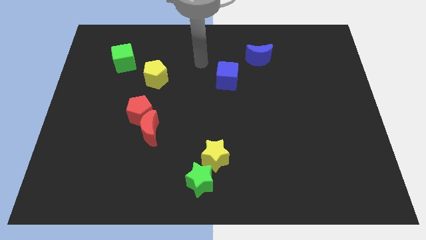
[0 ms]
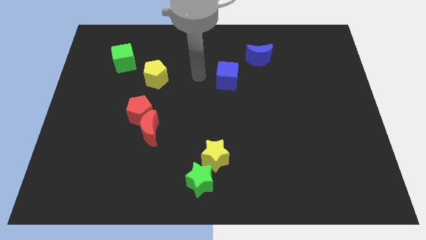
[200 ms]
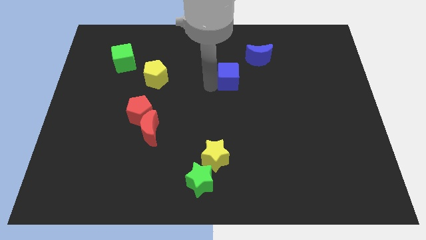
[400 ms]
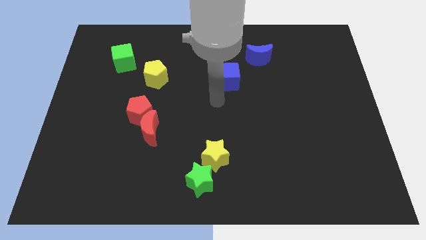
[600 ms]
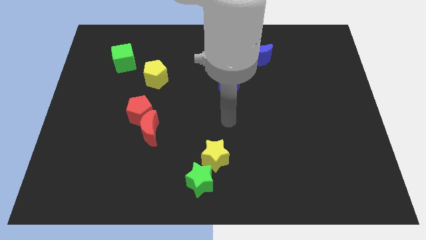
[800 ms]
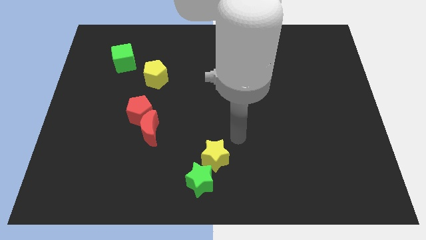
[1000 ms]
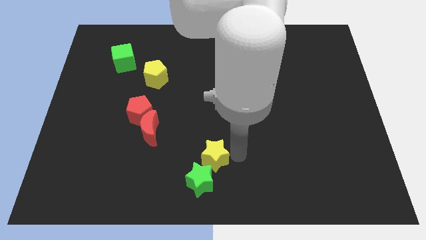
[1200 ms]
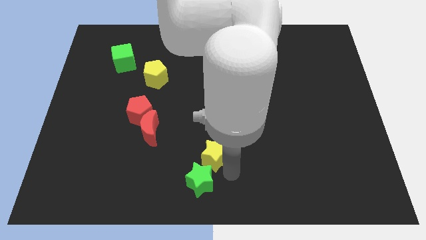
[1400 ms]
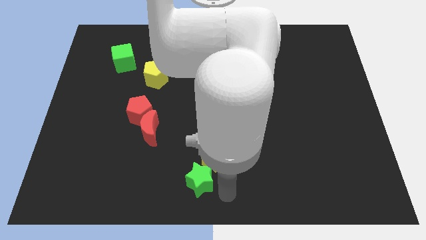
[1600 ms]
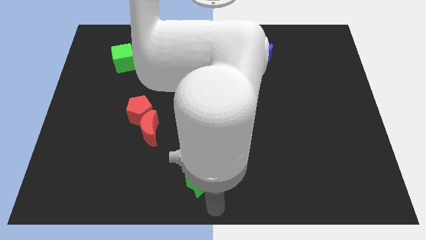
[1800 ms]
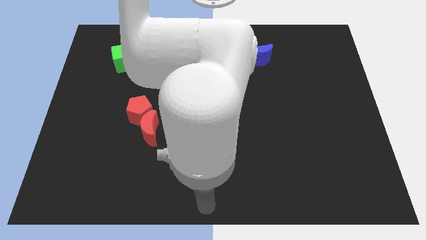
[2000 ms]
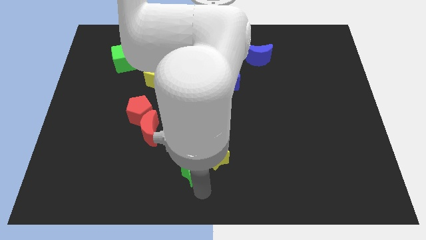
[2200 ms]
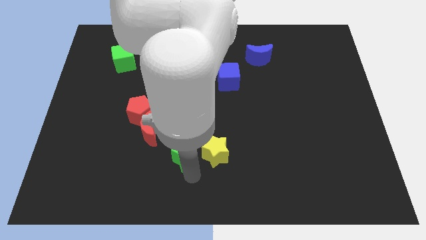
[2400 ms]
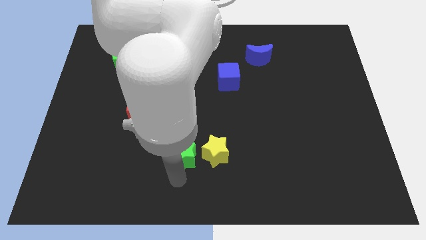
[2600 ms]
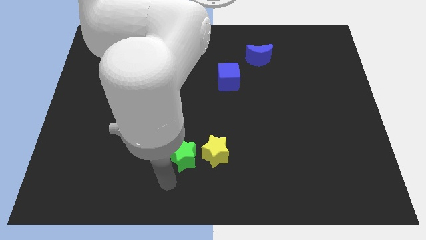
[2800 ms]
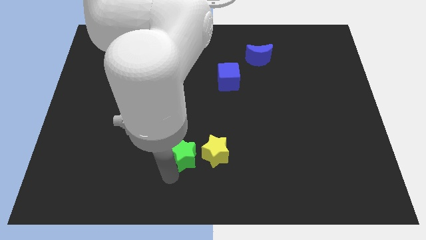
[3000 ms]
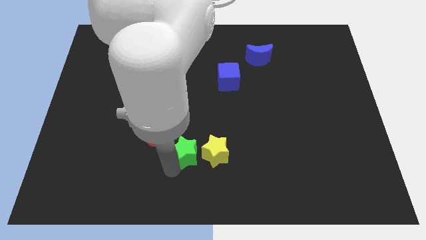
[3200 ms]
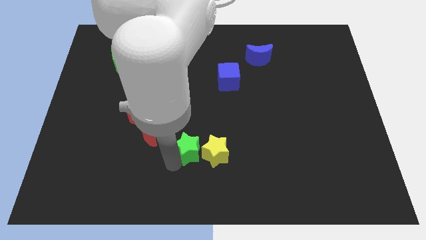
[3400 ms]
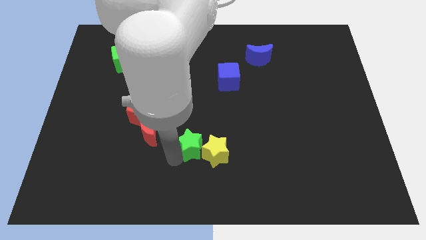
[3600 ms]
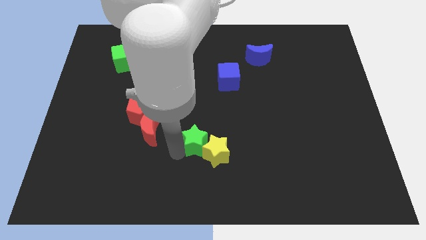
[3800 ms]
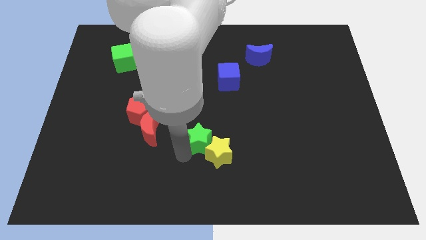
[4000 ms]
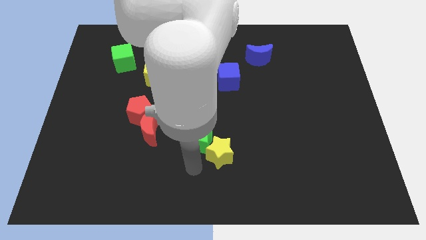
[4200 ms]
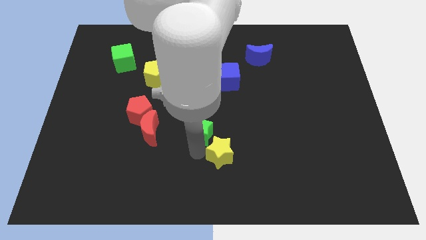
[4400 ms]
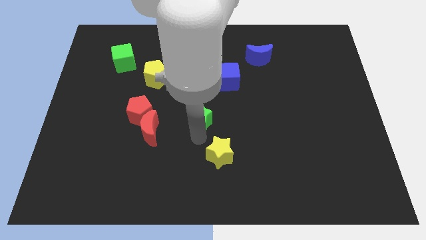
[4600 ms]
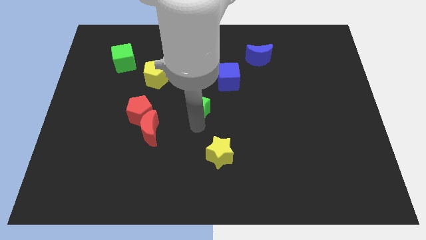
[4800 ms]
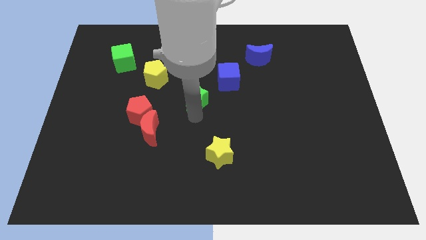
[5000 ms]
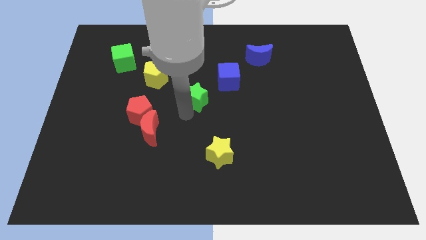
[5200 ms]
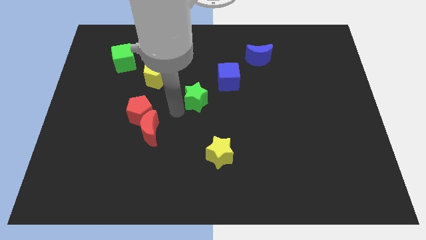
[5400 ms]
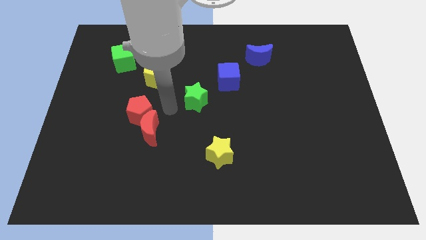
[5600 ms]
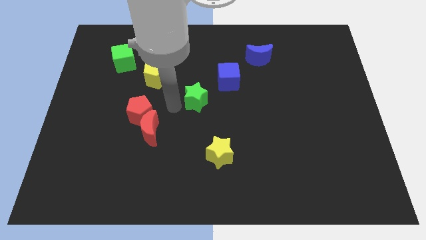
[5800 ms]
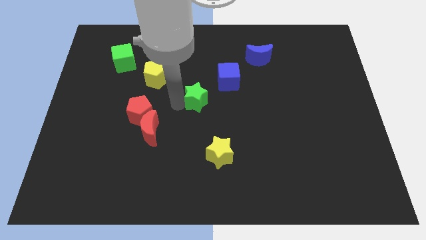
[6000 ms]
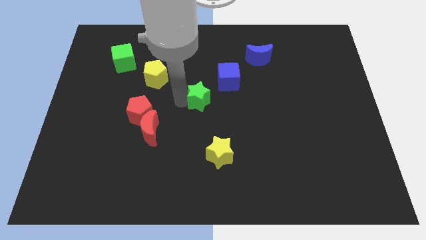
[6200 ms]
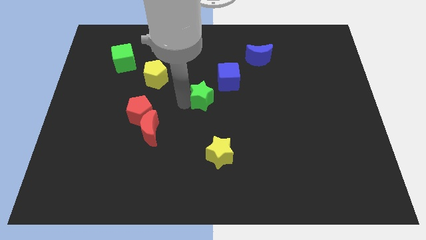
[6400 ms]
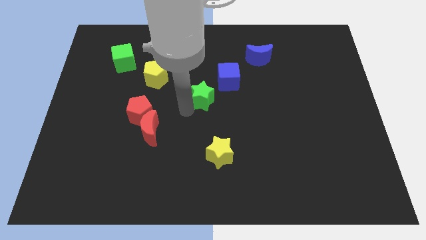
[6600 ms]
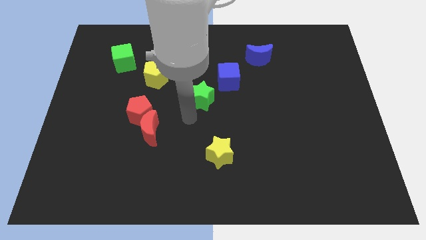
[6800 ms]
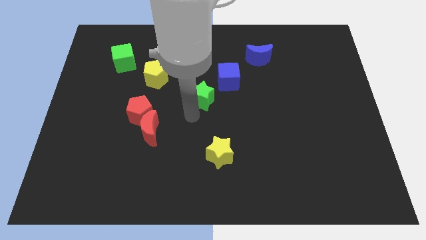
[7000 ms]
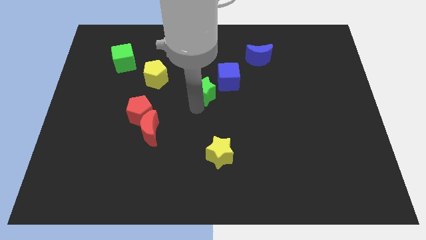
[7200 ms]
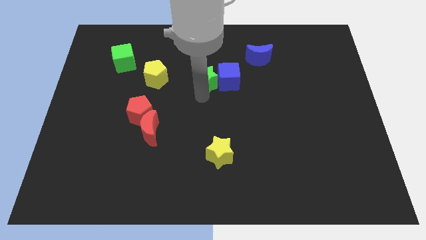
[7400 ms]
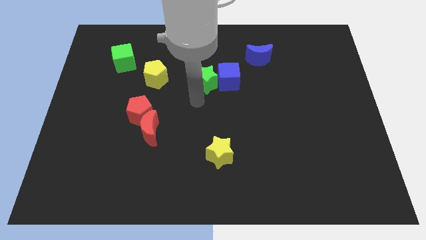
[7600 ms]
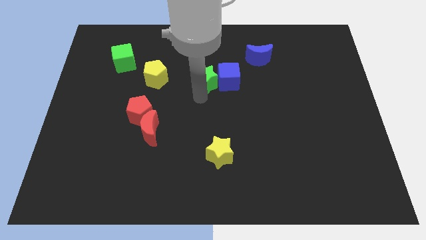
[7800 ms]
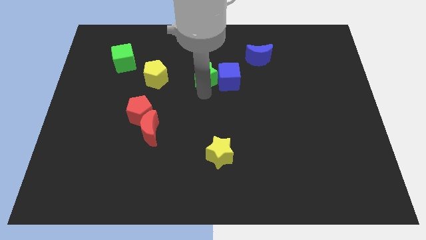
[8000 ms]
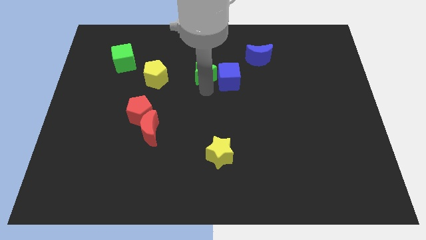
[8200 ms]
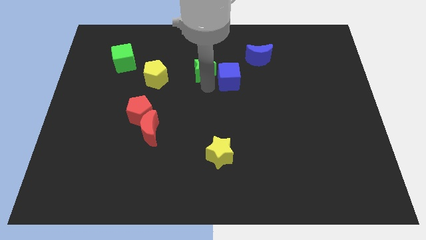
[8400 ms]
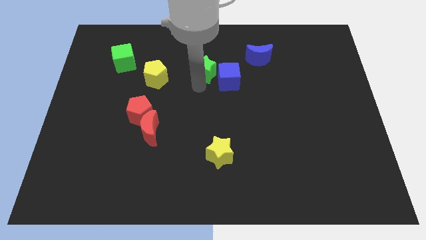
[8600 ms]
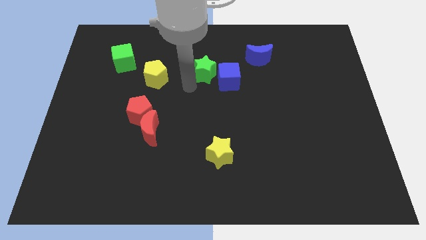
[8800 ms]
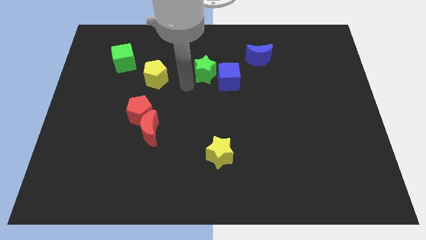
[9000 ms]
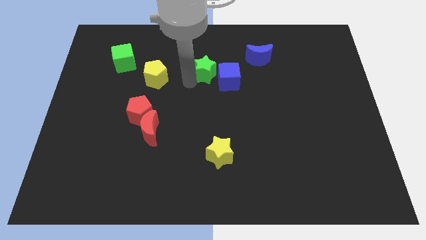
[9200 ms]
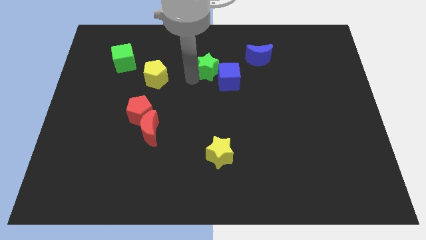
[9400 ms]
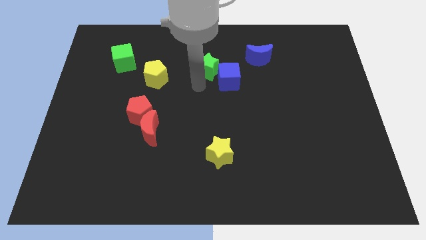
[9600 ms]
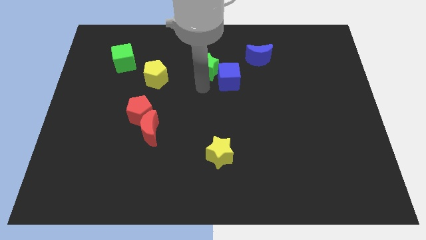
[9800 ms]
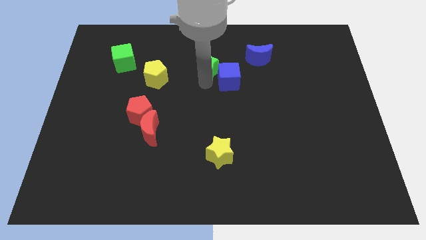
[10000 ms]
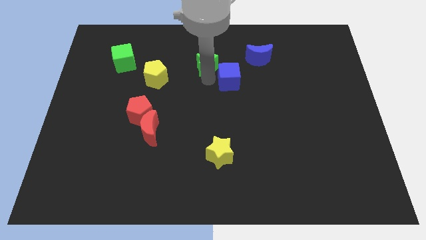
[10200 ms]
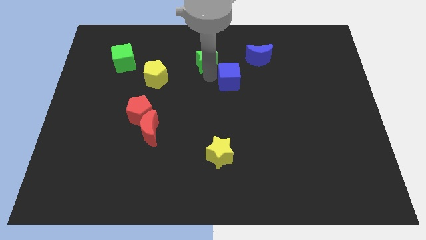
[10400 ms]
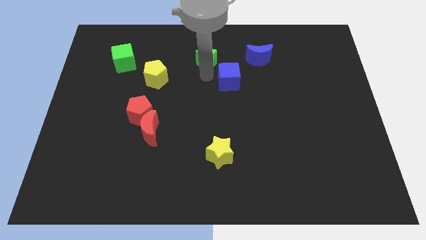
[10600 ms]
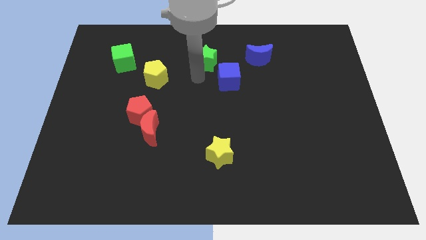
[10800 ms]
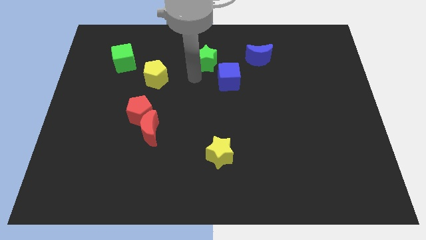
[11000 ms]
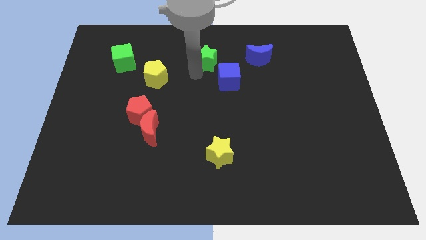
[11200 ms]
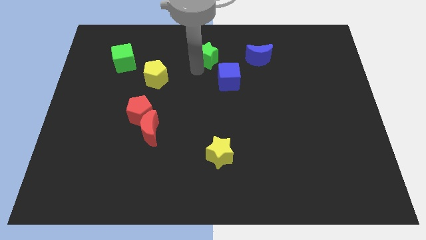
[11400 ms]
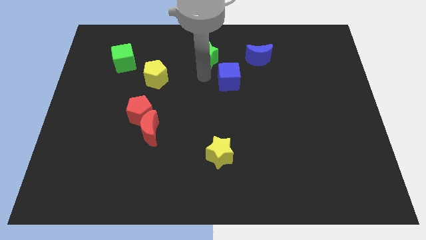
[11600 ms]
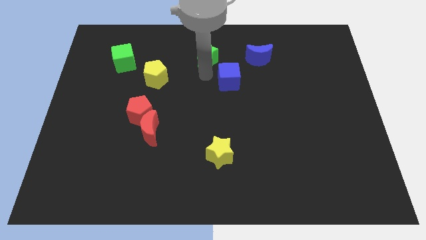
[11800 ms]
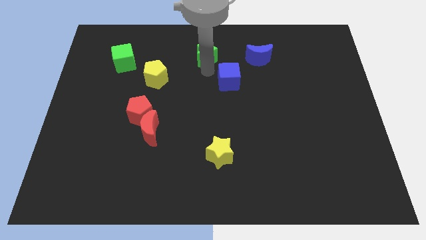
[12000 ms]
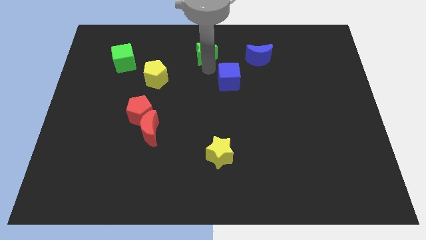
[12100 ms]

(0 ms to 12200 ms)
move the green star to the top

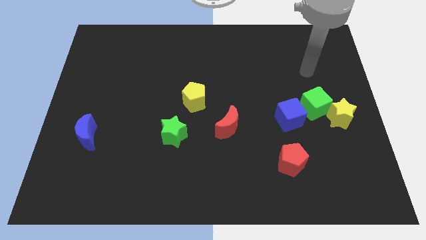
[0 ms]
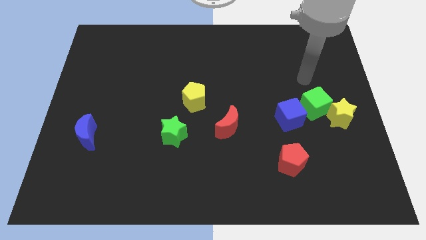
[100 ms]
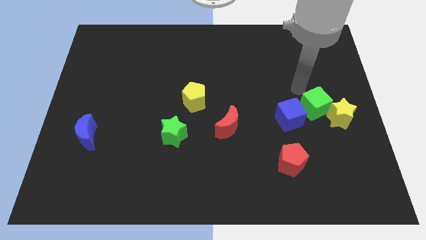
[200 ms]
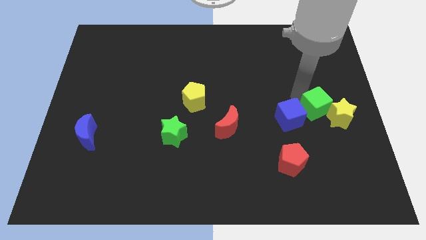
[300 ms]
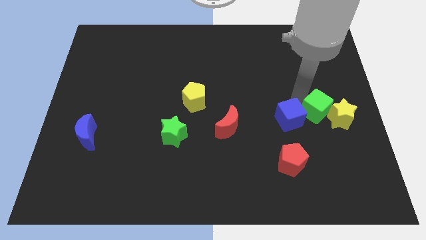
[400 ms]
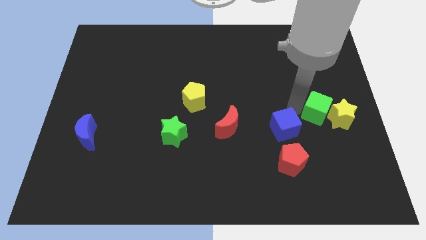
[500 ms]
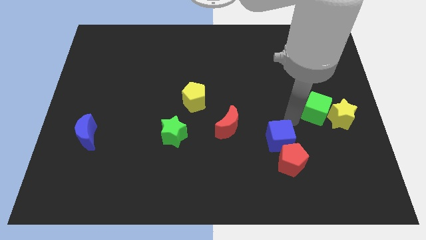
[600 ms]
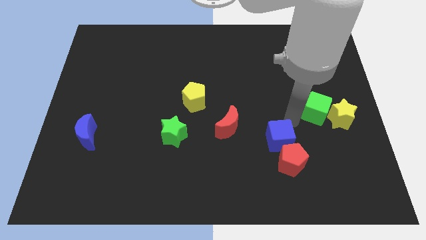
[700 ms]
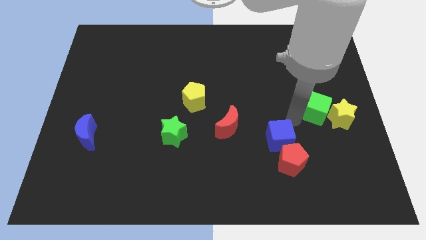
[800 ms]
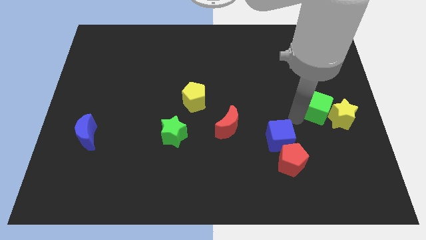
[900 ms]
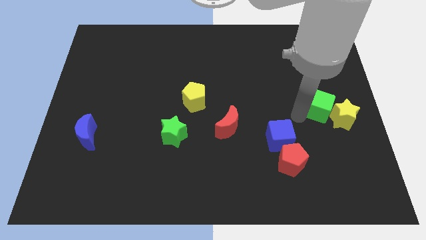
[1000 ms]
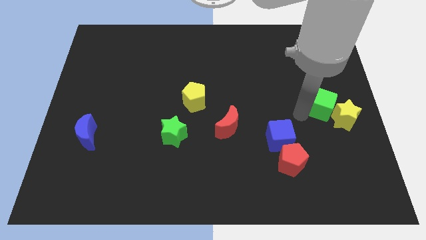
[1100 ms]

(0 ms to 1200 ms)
put the green cube to the right side of the board
